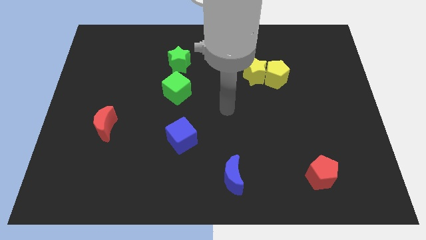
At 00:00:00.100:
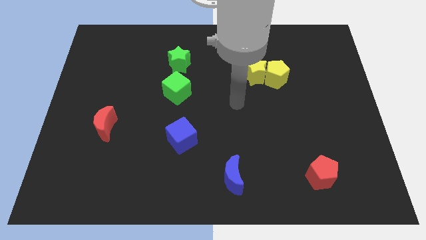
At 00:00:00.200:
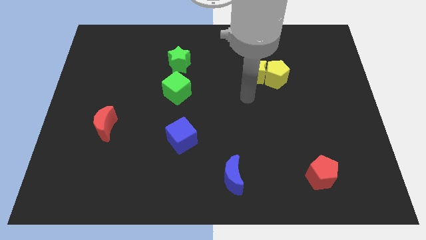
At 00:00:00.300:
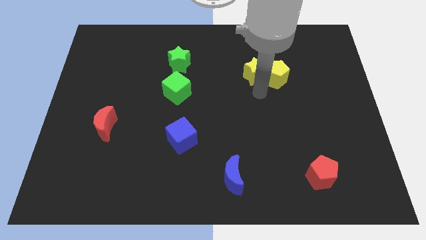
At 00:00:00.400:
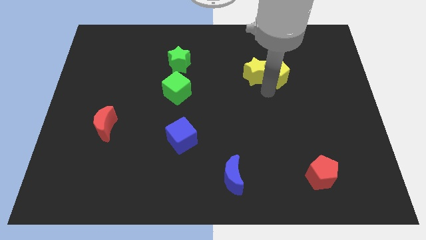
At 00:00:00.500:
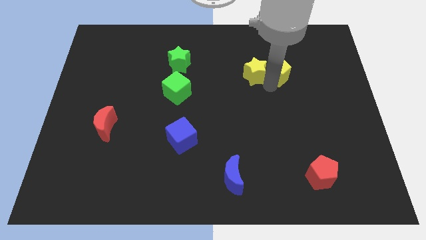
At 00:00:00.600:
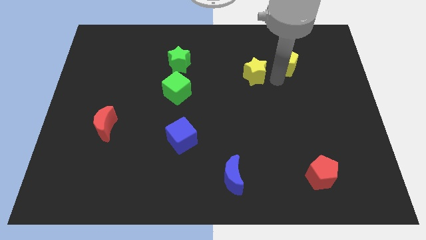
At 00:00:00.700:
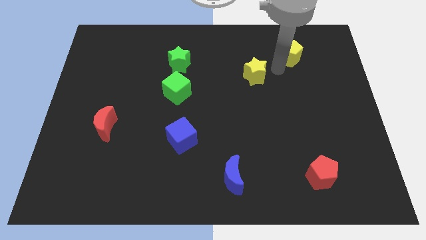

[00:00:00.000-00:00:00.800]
move the yellow star away from the yellow pentagon

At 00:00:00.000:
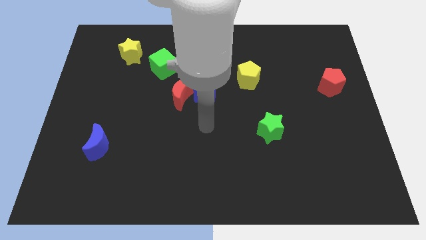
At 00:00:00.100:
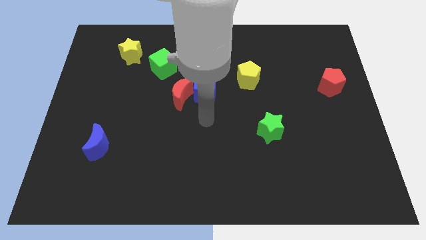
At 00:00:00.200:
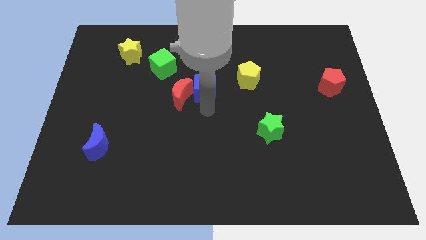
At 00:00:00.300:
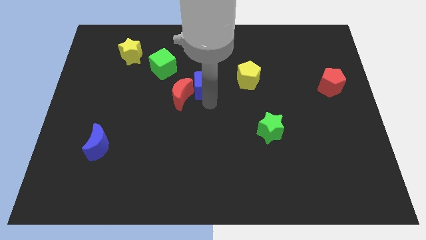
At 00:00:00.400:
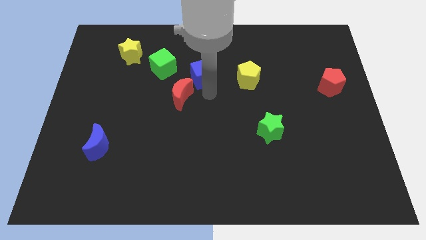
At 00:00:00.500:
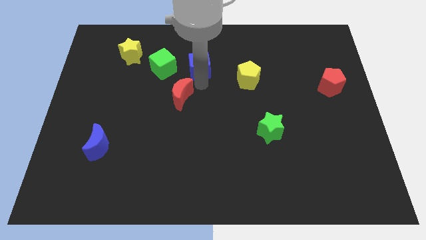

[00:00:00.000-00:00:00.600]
pull the red moon apart from the blue cube

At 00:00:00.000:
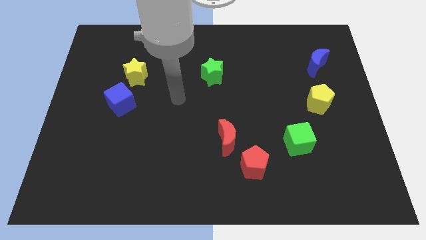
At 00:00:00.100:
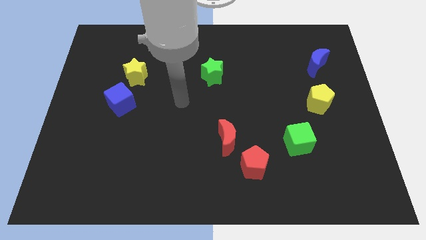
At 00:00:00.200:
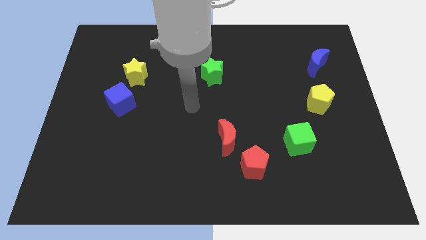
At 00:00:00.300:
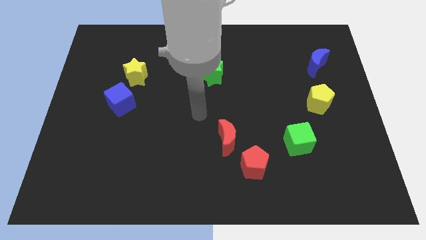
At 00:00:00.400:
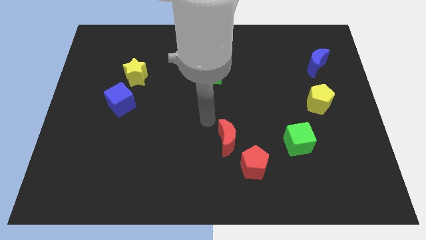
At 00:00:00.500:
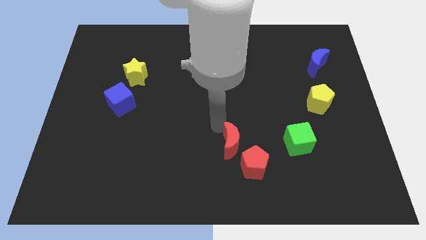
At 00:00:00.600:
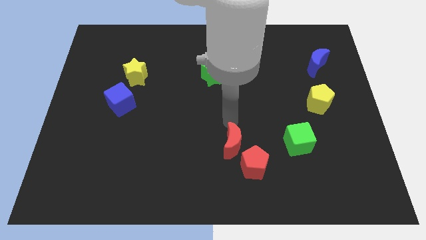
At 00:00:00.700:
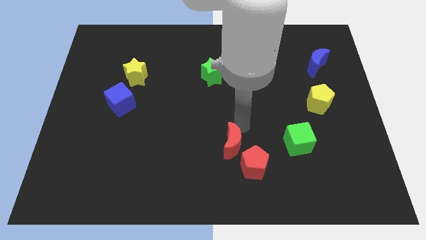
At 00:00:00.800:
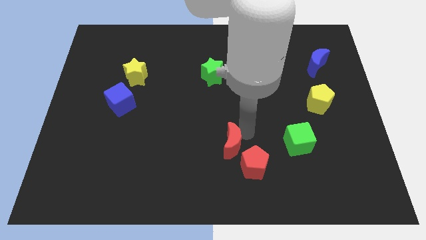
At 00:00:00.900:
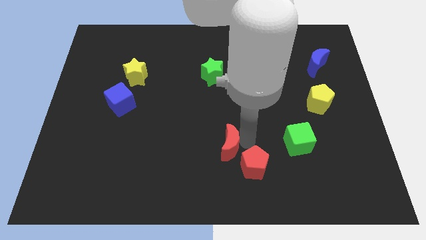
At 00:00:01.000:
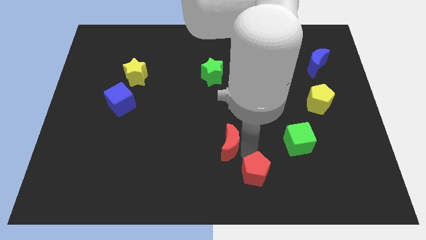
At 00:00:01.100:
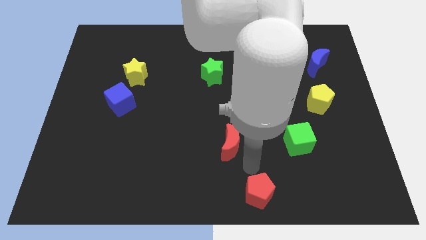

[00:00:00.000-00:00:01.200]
move the red moon away from the red pentagon

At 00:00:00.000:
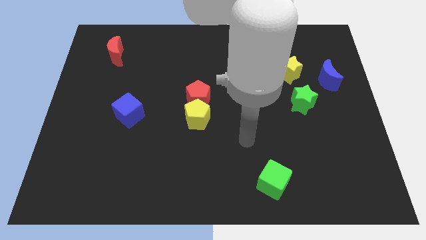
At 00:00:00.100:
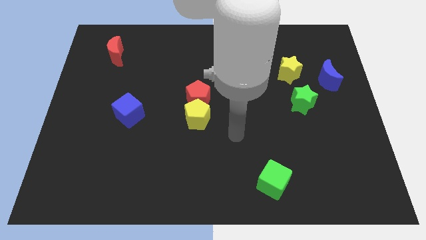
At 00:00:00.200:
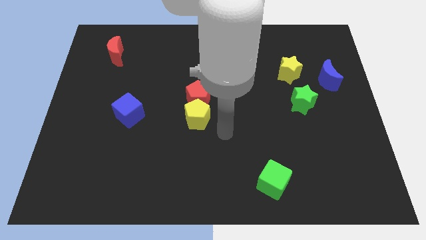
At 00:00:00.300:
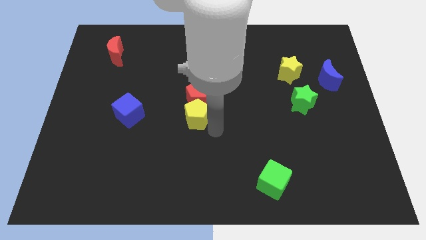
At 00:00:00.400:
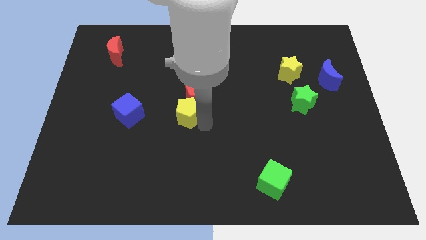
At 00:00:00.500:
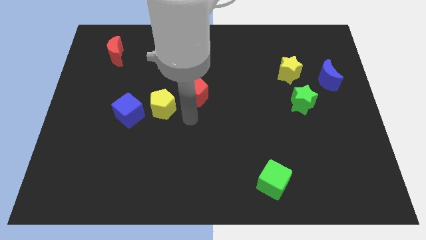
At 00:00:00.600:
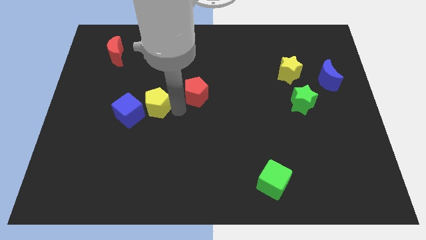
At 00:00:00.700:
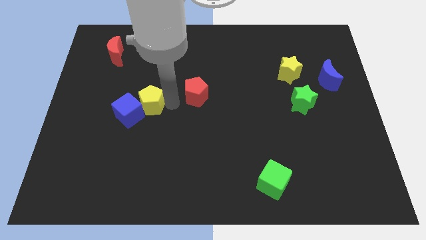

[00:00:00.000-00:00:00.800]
pull the red pentagon apart from the yellow pentagon

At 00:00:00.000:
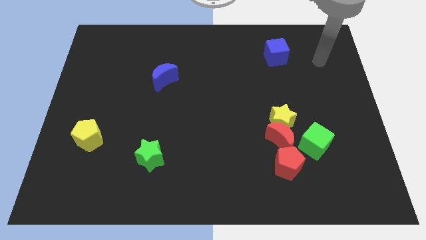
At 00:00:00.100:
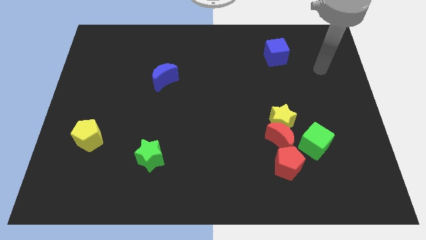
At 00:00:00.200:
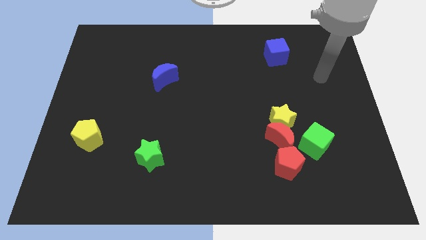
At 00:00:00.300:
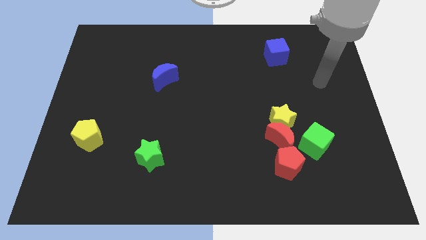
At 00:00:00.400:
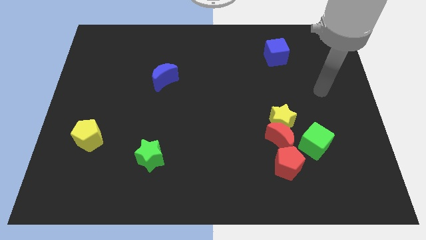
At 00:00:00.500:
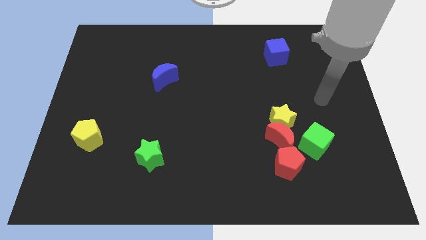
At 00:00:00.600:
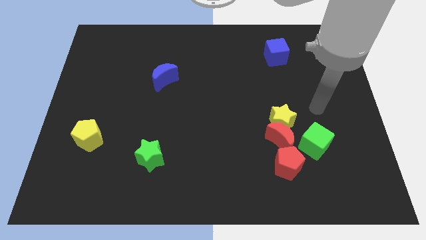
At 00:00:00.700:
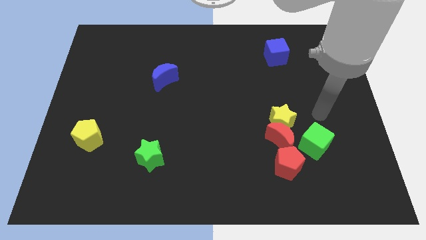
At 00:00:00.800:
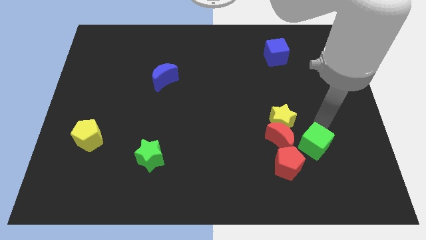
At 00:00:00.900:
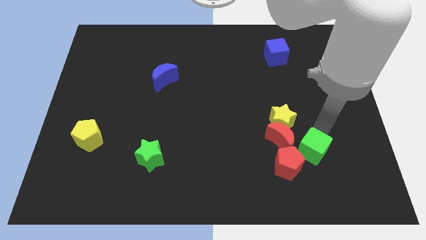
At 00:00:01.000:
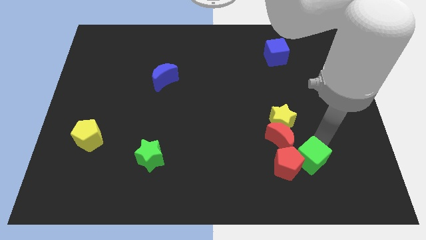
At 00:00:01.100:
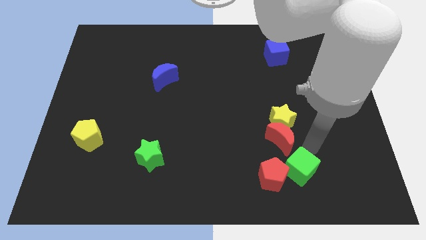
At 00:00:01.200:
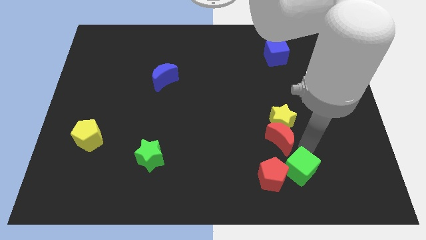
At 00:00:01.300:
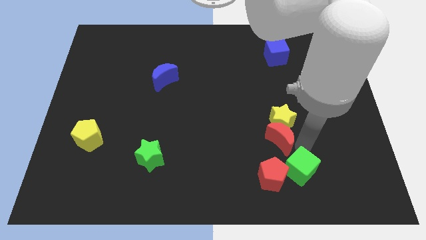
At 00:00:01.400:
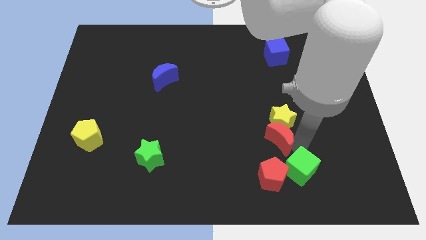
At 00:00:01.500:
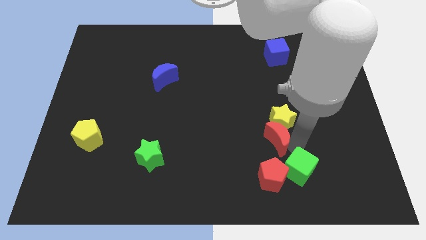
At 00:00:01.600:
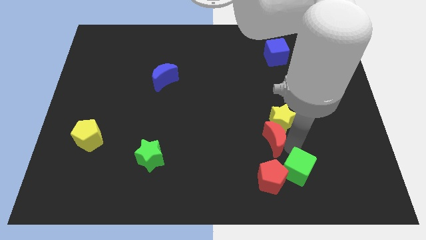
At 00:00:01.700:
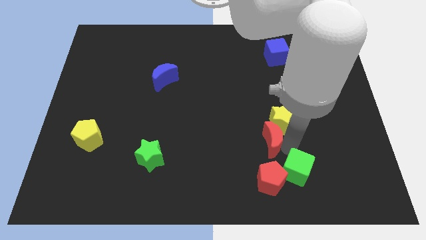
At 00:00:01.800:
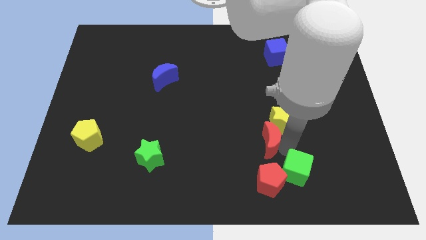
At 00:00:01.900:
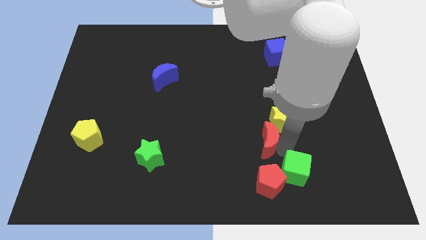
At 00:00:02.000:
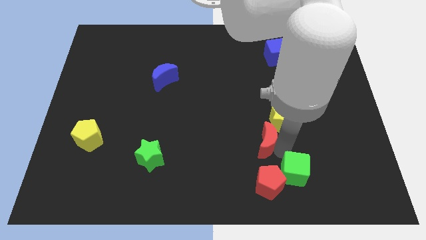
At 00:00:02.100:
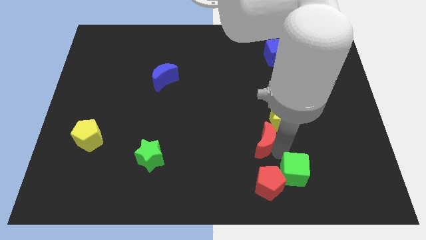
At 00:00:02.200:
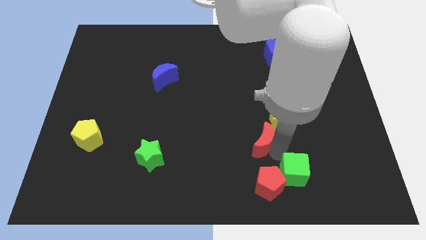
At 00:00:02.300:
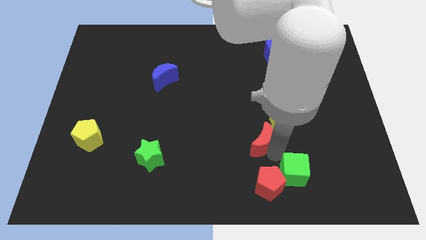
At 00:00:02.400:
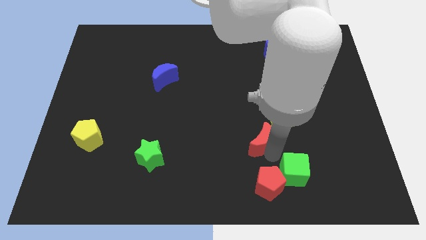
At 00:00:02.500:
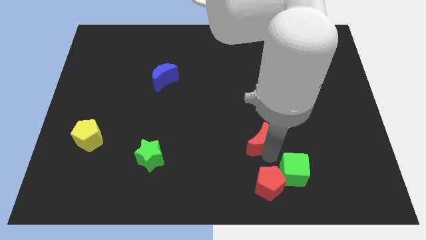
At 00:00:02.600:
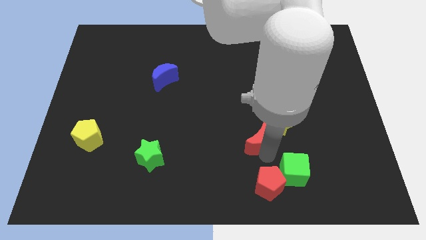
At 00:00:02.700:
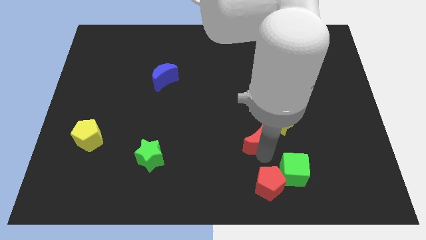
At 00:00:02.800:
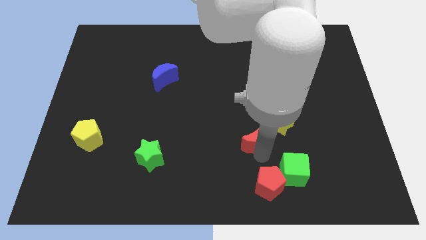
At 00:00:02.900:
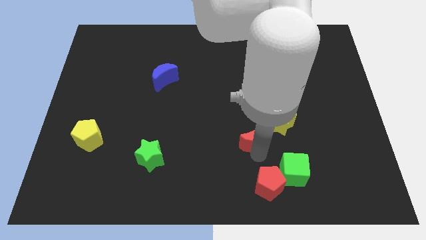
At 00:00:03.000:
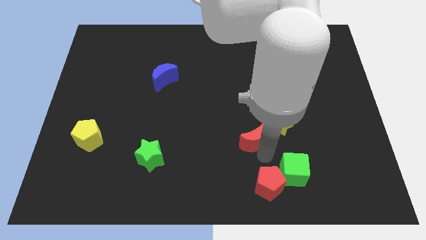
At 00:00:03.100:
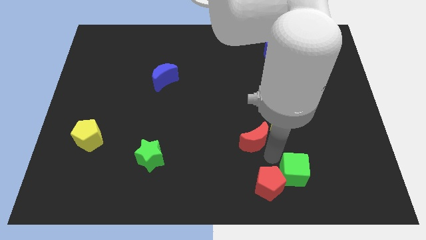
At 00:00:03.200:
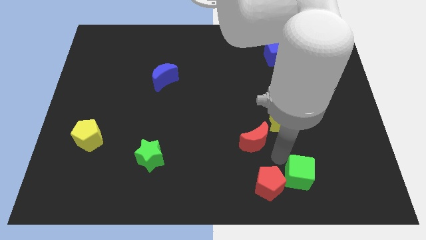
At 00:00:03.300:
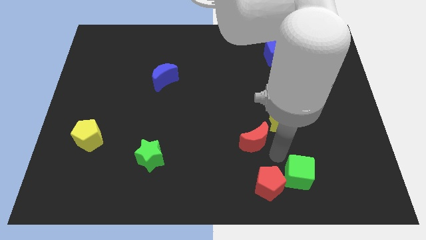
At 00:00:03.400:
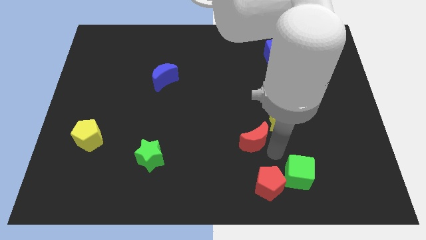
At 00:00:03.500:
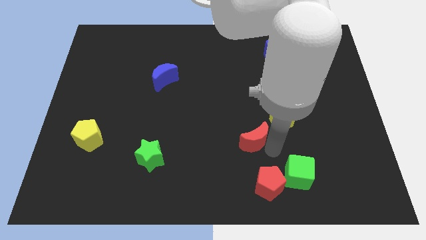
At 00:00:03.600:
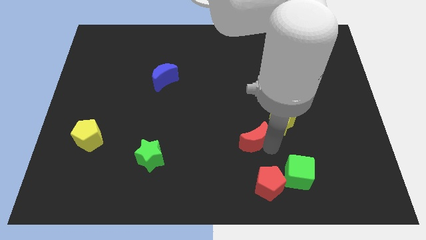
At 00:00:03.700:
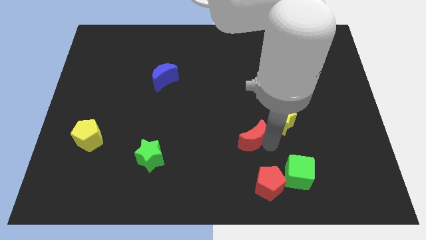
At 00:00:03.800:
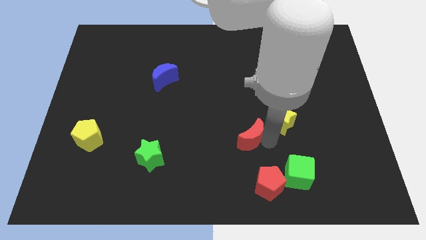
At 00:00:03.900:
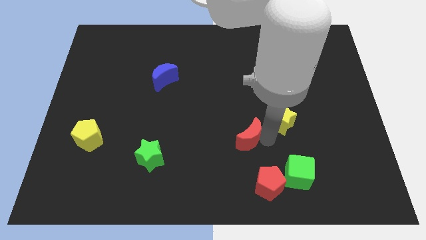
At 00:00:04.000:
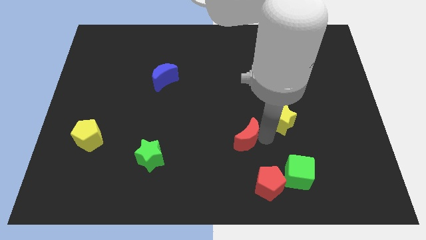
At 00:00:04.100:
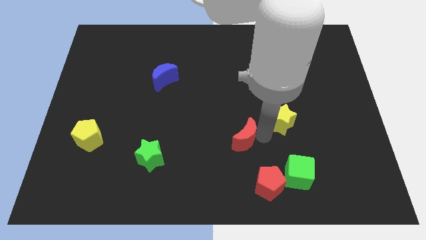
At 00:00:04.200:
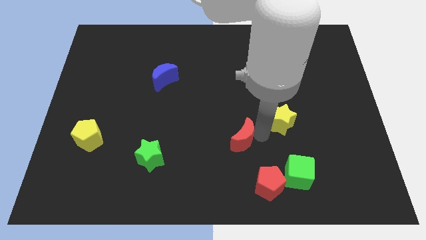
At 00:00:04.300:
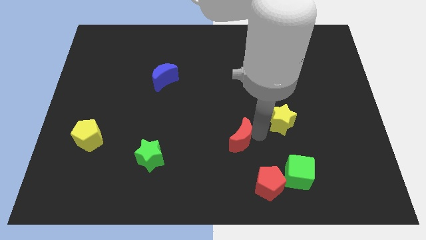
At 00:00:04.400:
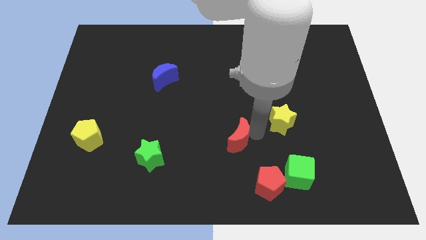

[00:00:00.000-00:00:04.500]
separate the red moon from the group of blocks

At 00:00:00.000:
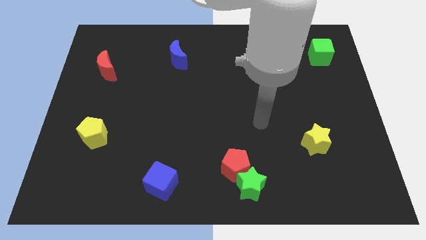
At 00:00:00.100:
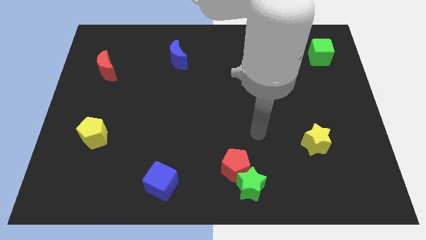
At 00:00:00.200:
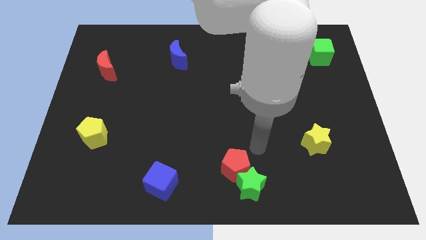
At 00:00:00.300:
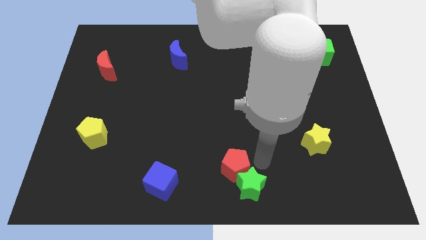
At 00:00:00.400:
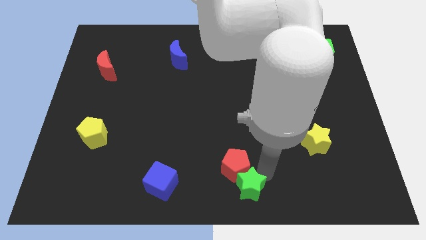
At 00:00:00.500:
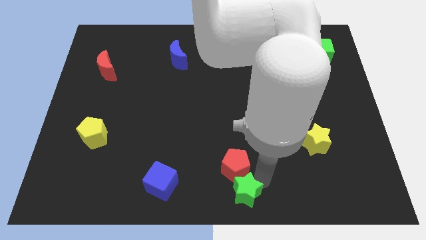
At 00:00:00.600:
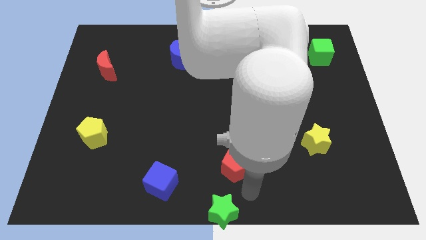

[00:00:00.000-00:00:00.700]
separate the red pentagon from the green star

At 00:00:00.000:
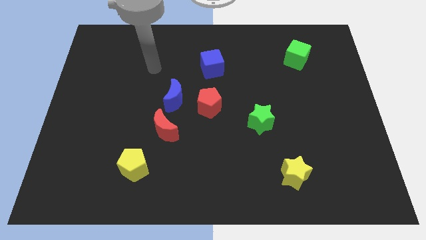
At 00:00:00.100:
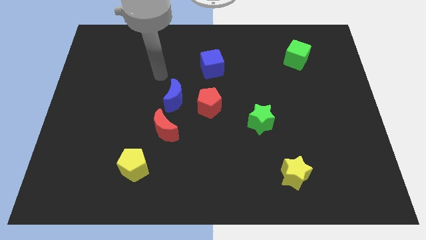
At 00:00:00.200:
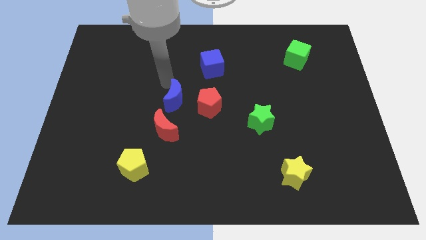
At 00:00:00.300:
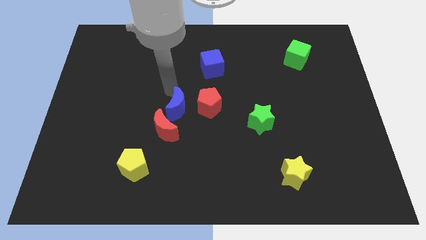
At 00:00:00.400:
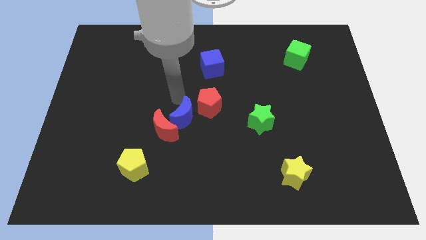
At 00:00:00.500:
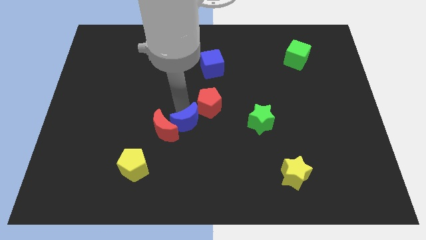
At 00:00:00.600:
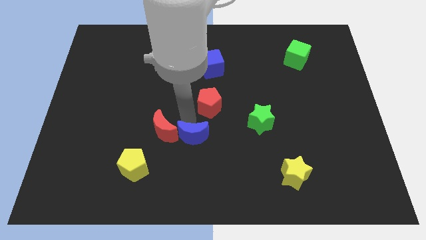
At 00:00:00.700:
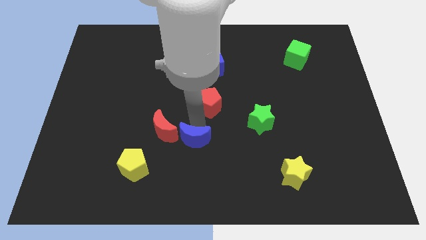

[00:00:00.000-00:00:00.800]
move the red pentagon away from the blue moon
